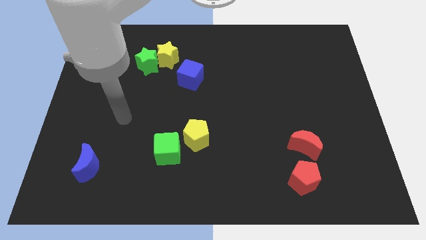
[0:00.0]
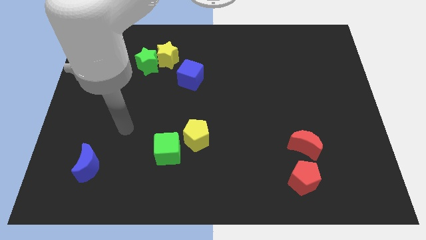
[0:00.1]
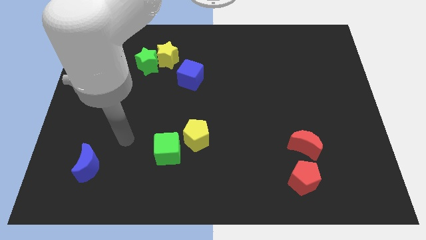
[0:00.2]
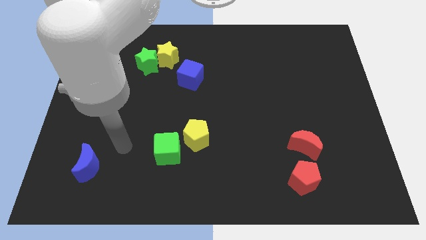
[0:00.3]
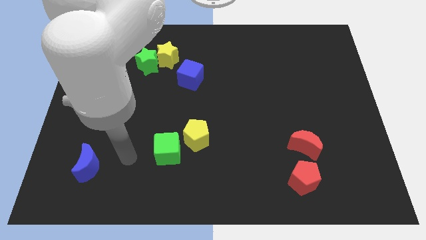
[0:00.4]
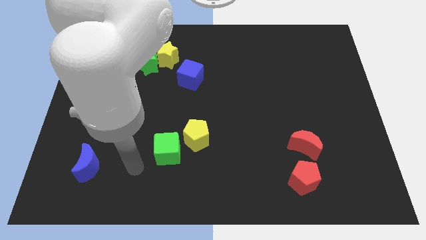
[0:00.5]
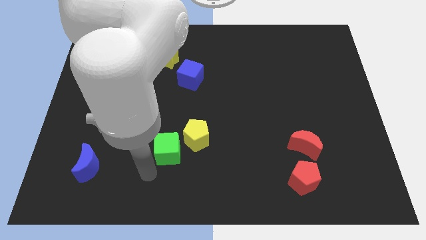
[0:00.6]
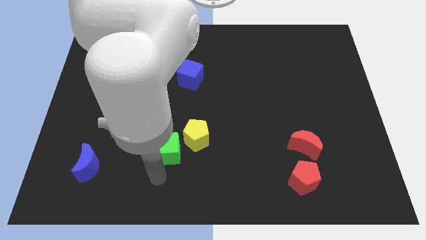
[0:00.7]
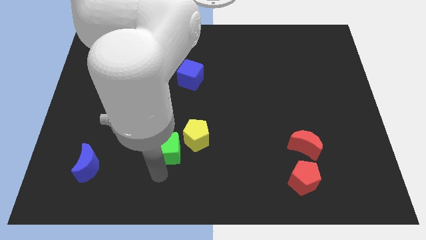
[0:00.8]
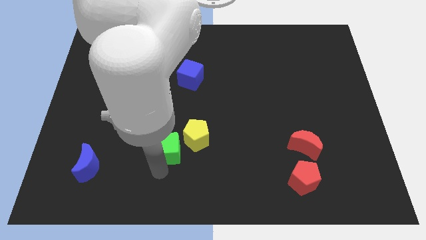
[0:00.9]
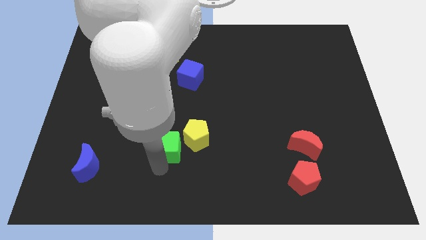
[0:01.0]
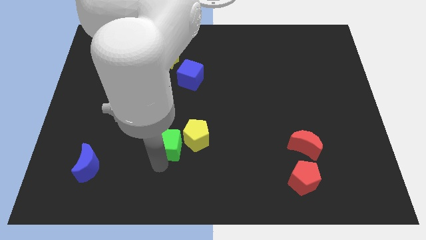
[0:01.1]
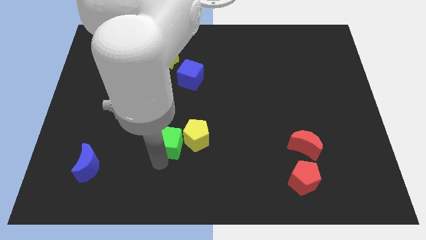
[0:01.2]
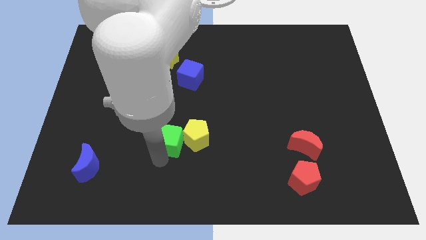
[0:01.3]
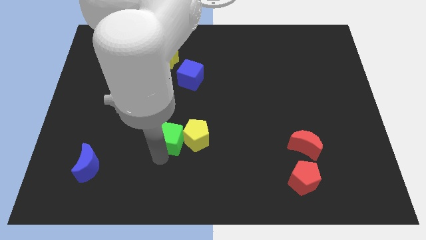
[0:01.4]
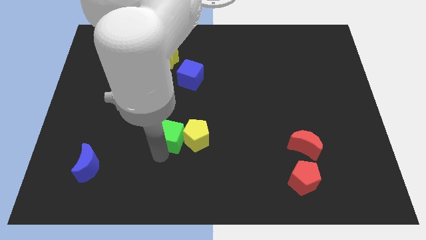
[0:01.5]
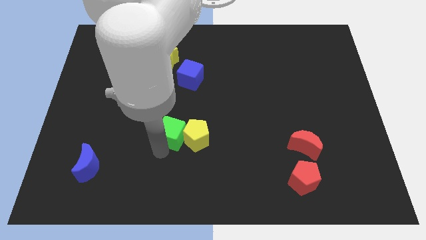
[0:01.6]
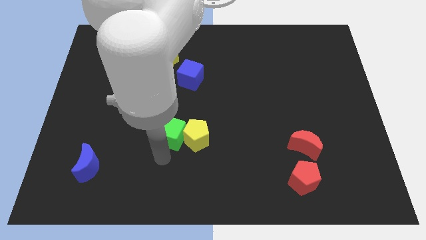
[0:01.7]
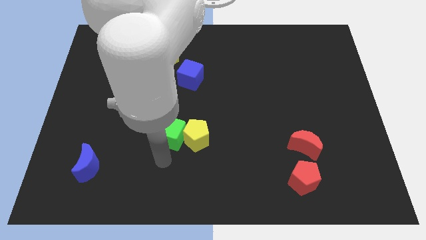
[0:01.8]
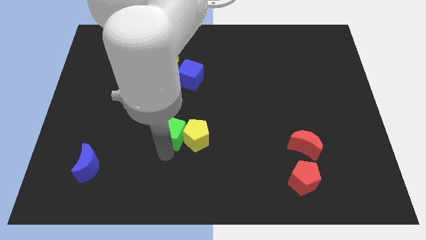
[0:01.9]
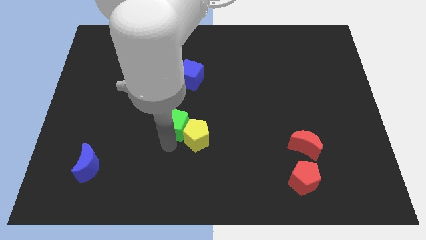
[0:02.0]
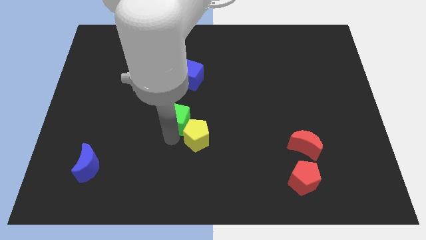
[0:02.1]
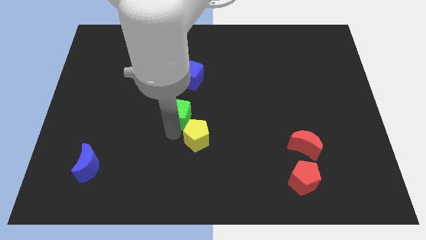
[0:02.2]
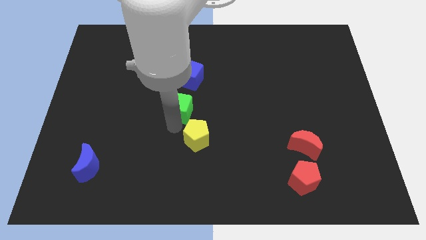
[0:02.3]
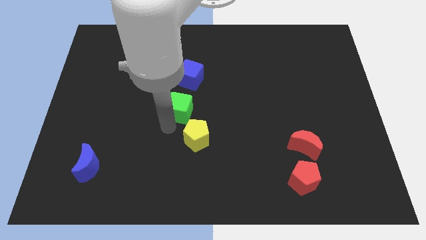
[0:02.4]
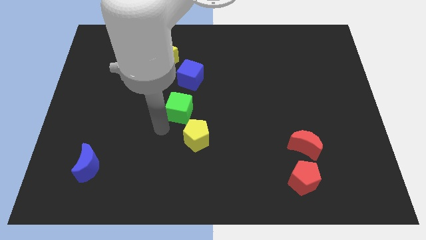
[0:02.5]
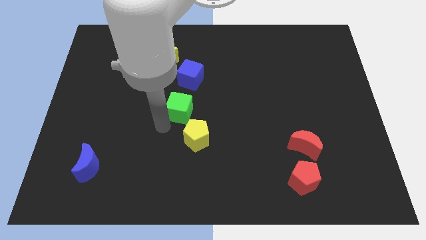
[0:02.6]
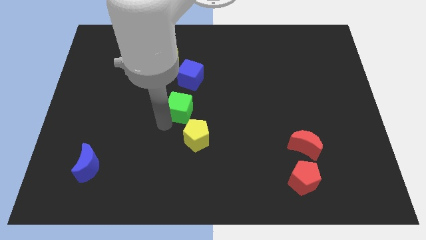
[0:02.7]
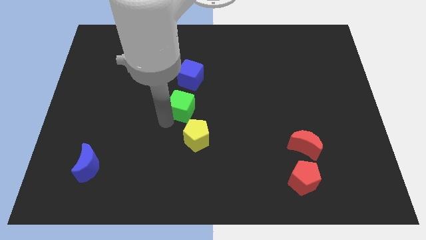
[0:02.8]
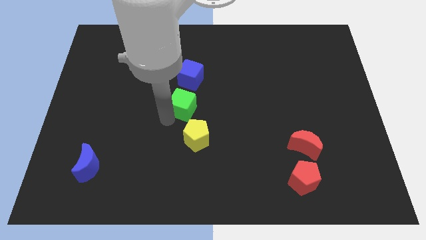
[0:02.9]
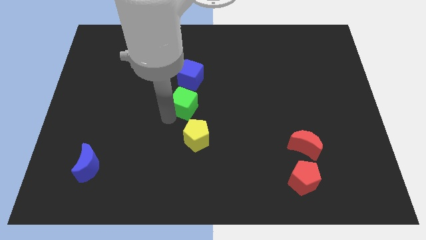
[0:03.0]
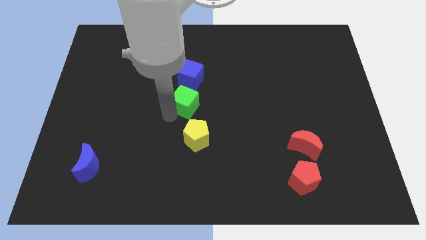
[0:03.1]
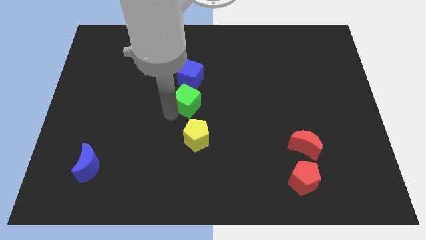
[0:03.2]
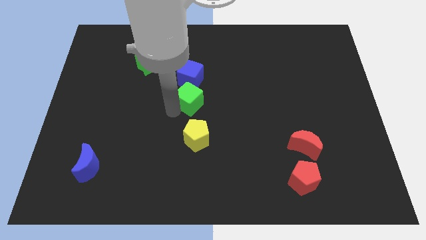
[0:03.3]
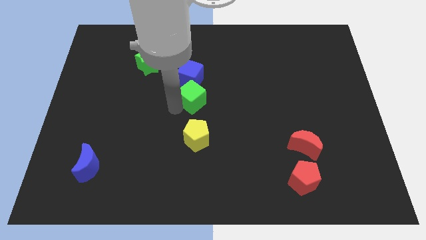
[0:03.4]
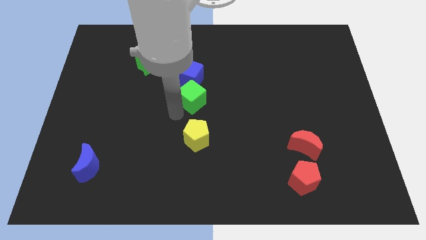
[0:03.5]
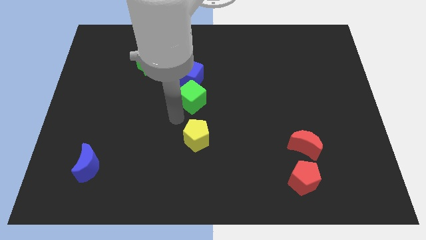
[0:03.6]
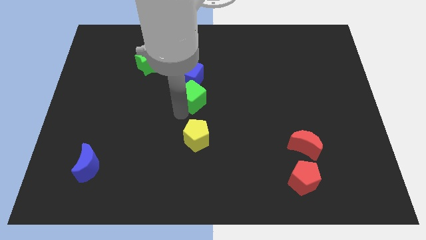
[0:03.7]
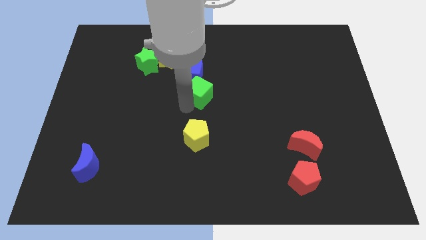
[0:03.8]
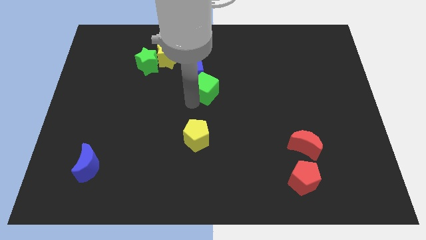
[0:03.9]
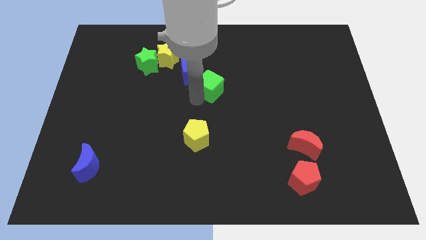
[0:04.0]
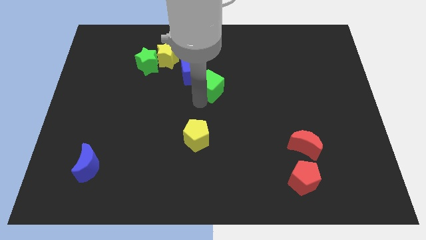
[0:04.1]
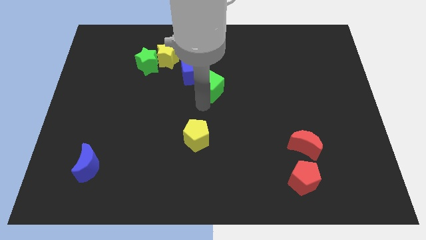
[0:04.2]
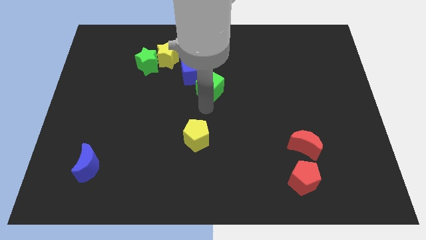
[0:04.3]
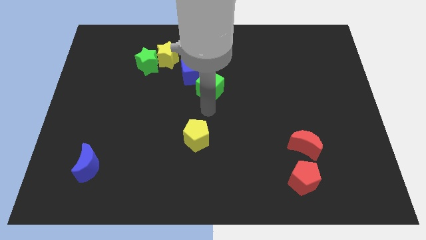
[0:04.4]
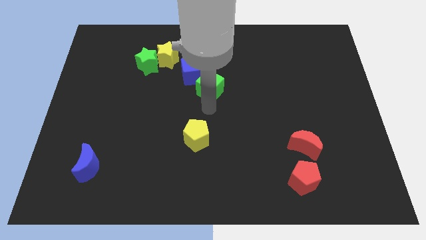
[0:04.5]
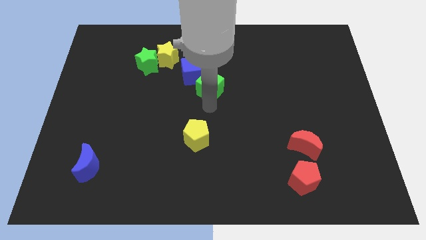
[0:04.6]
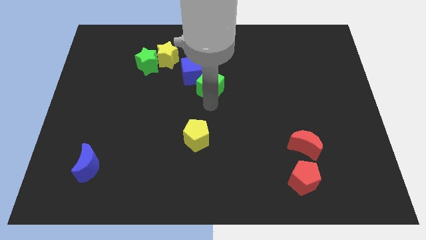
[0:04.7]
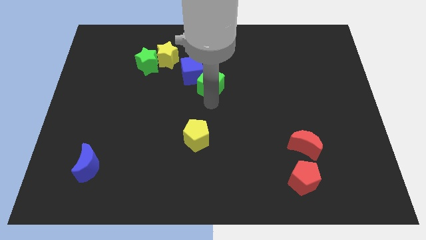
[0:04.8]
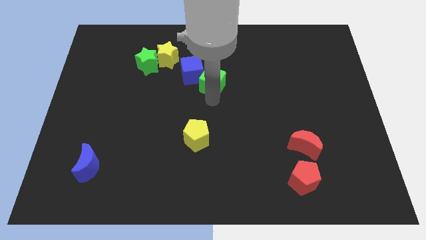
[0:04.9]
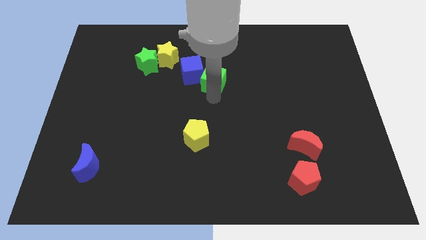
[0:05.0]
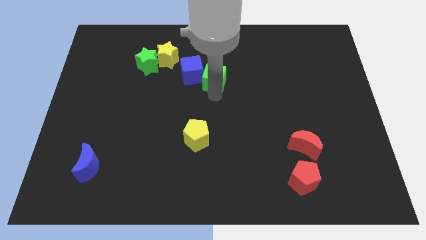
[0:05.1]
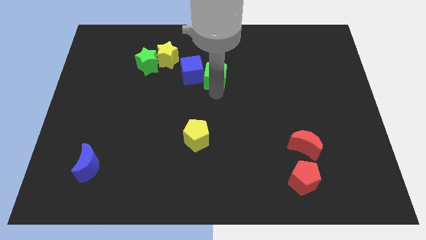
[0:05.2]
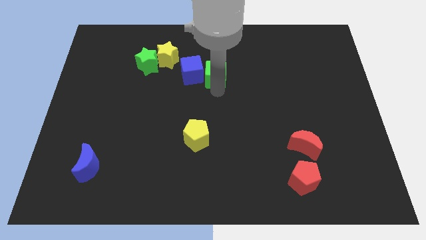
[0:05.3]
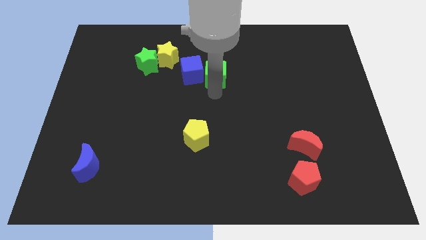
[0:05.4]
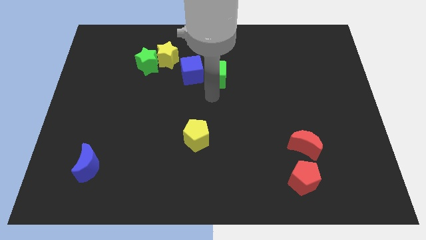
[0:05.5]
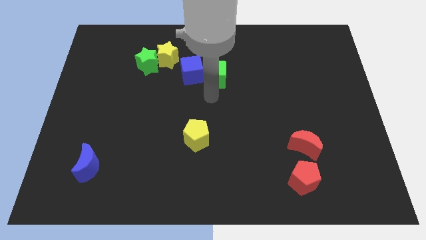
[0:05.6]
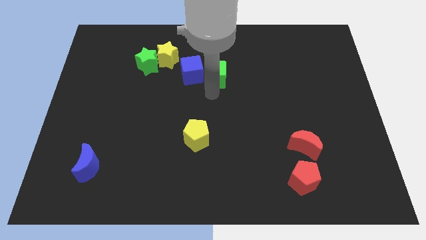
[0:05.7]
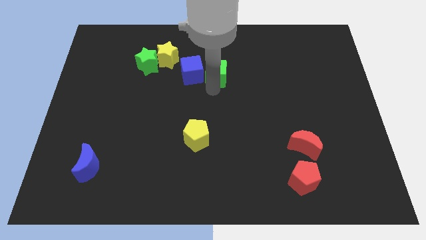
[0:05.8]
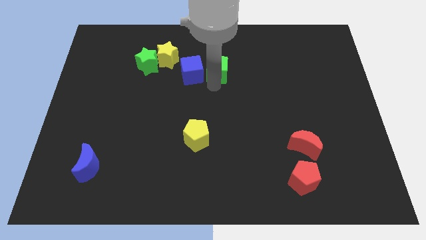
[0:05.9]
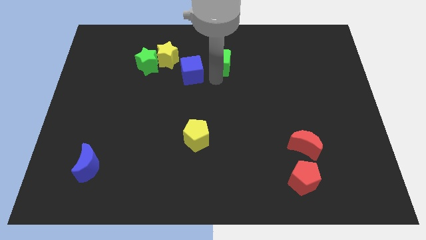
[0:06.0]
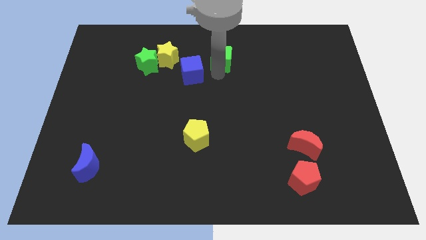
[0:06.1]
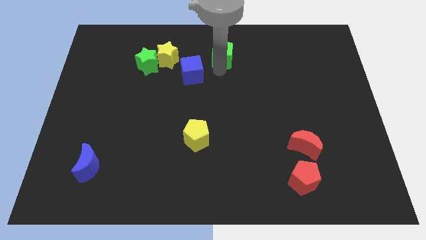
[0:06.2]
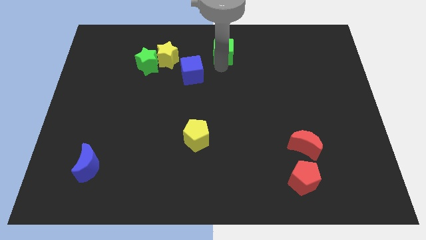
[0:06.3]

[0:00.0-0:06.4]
move the green cube to the top
